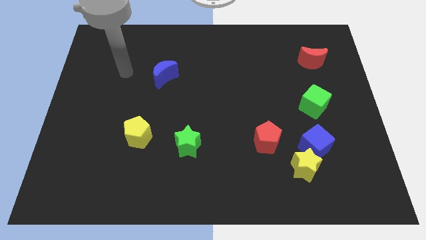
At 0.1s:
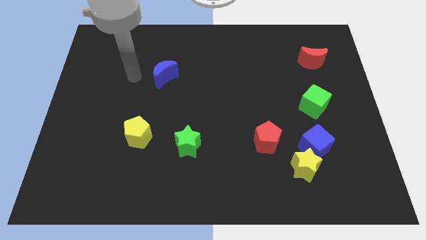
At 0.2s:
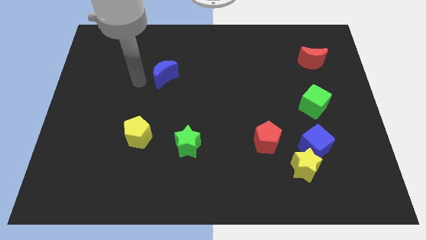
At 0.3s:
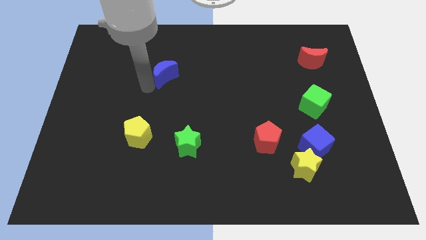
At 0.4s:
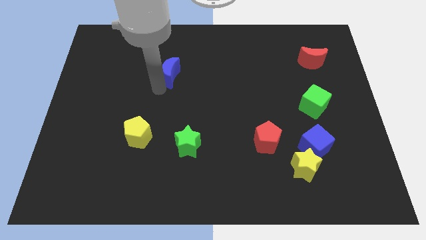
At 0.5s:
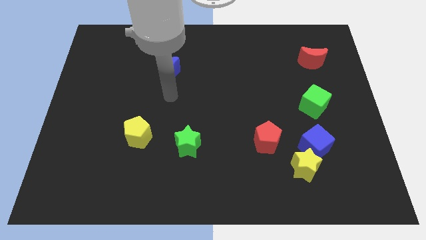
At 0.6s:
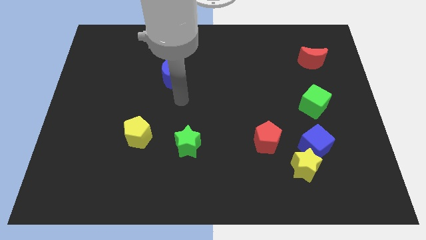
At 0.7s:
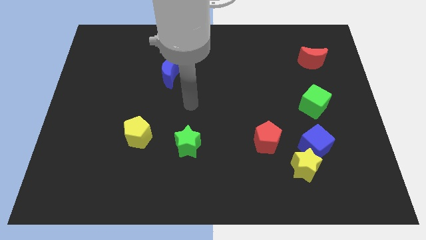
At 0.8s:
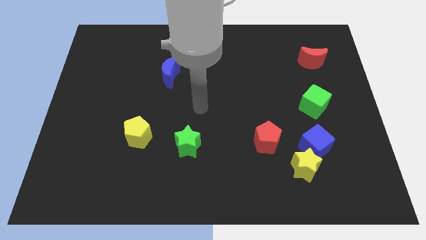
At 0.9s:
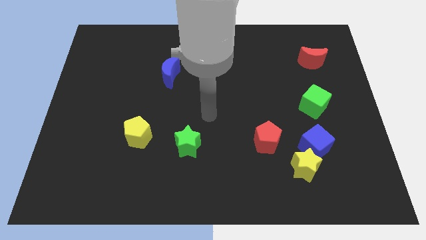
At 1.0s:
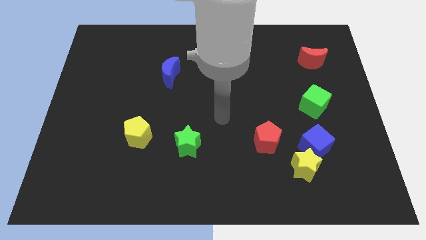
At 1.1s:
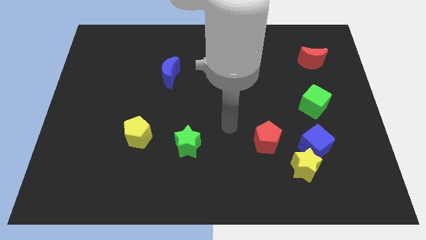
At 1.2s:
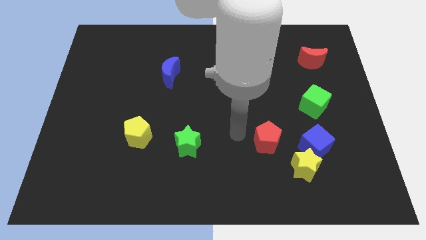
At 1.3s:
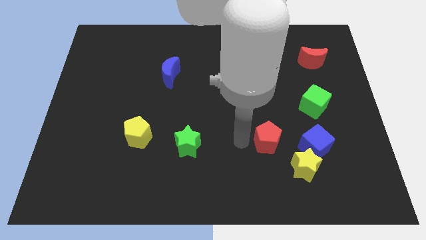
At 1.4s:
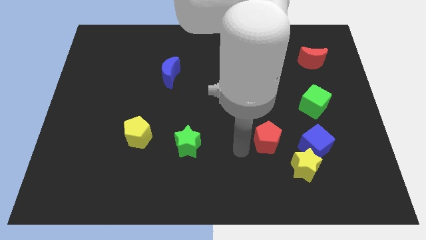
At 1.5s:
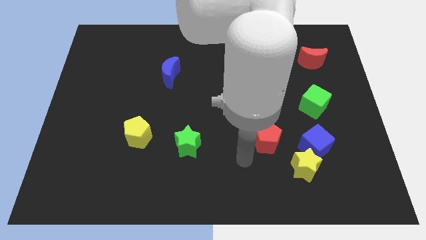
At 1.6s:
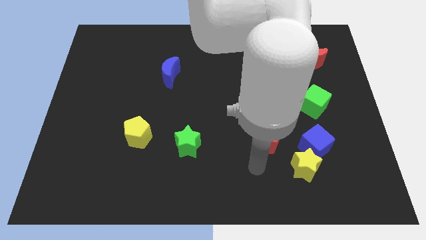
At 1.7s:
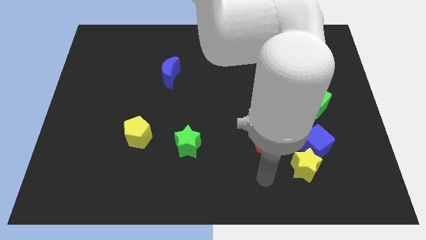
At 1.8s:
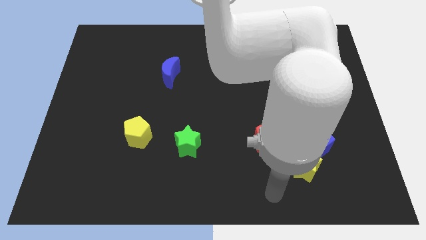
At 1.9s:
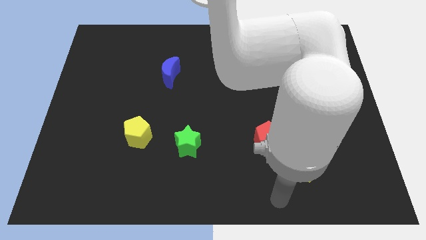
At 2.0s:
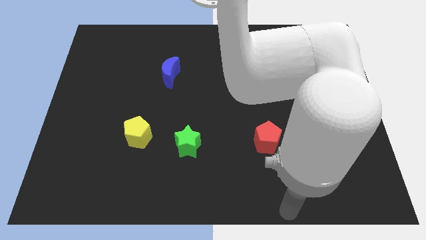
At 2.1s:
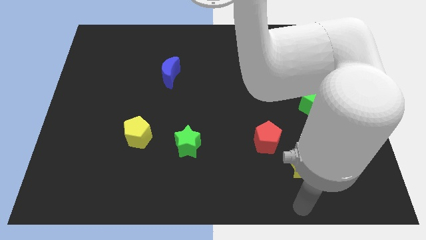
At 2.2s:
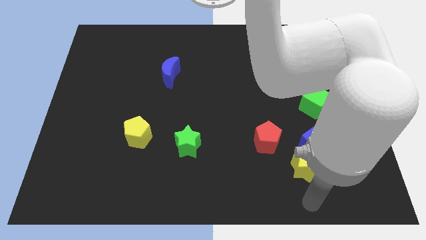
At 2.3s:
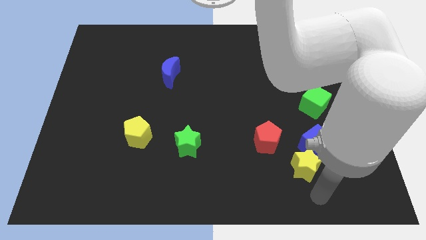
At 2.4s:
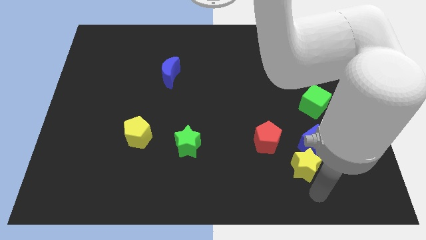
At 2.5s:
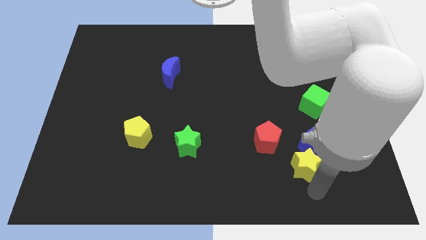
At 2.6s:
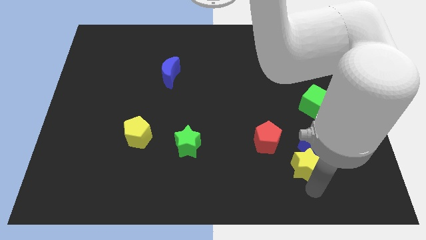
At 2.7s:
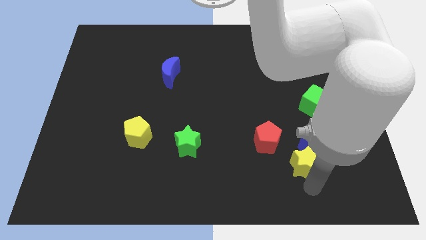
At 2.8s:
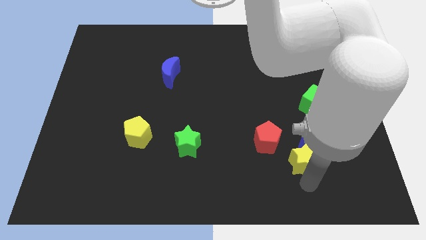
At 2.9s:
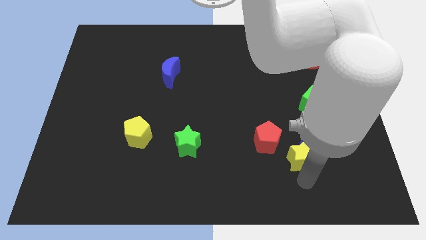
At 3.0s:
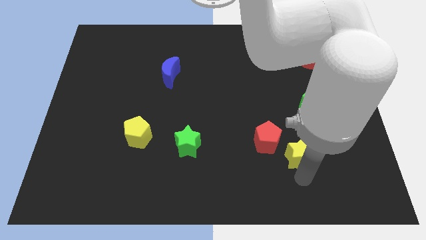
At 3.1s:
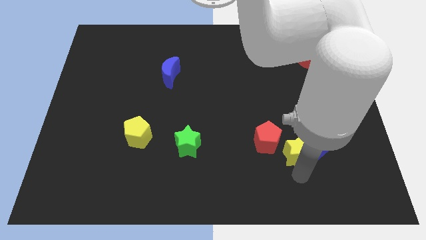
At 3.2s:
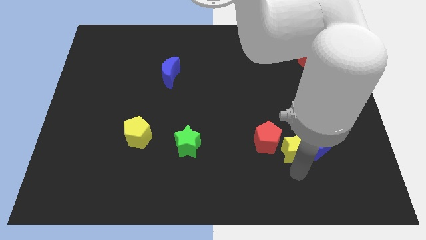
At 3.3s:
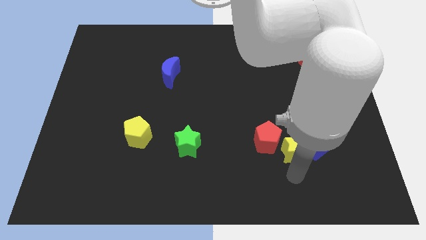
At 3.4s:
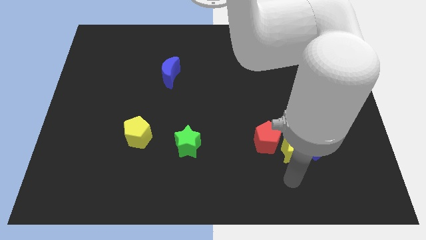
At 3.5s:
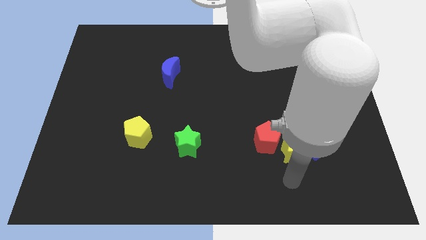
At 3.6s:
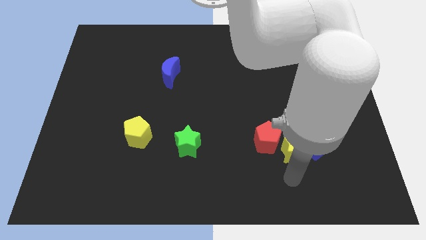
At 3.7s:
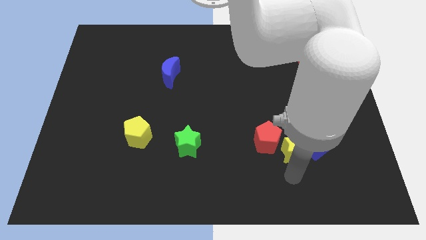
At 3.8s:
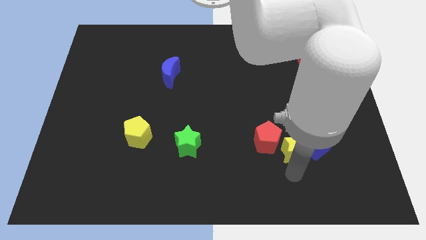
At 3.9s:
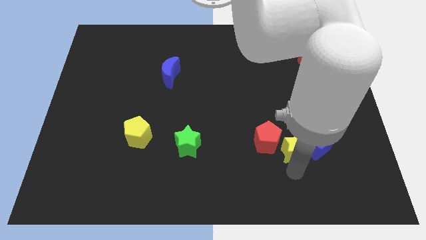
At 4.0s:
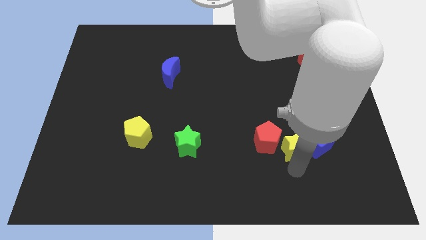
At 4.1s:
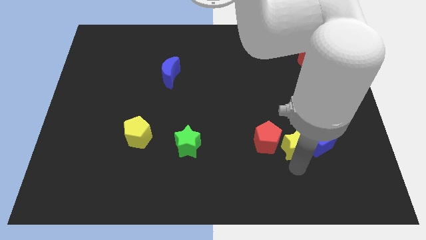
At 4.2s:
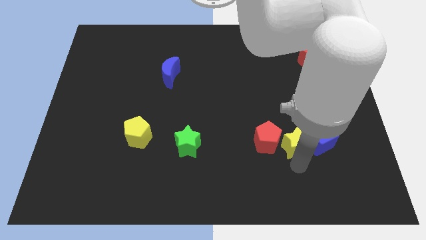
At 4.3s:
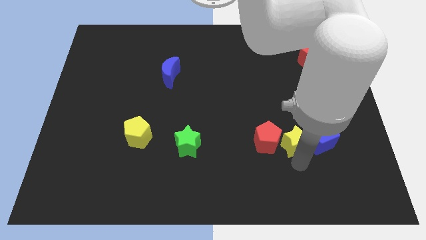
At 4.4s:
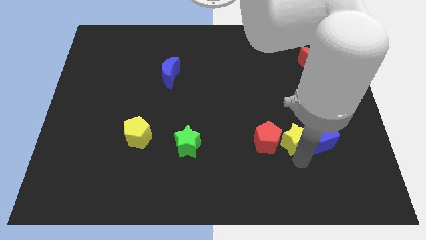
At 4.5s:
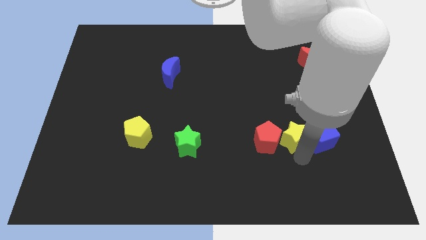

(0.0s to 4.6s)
slightly slide the yellow star up

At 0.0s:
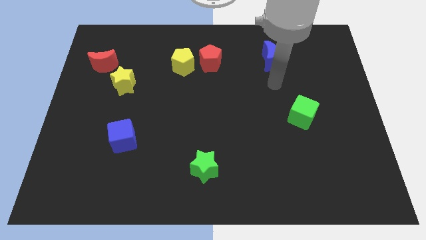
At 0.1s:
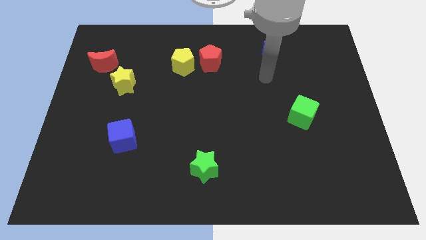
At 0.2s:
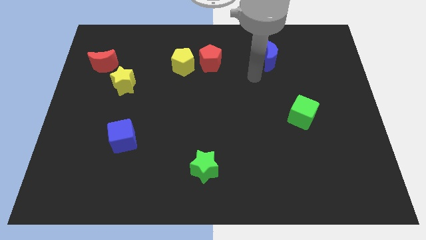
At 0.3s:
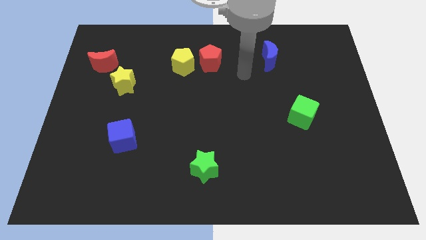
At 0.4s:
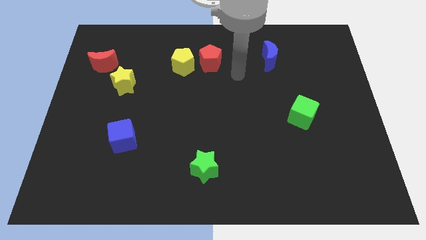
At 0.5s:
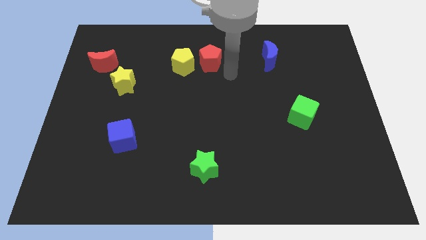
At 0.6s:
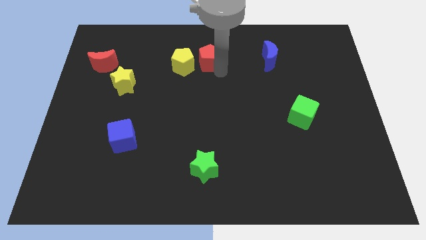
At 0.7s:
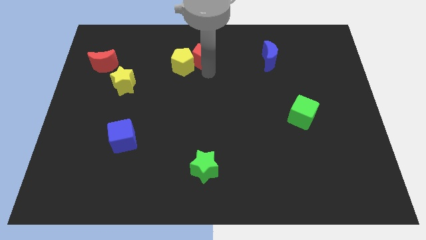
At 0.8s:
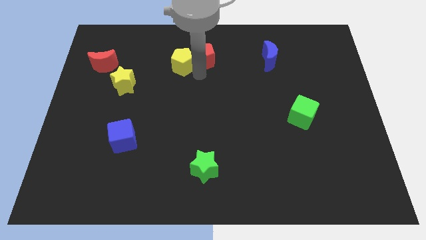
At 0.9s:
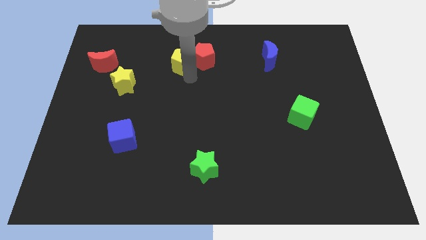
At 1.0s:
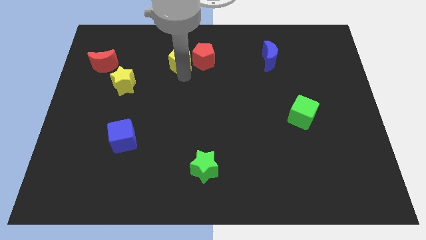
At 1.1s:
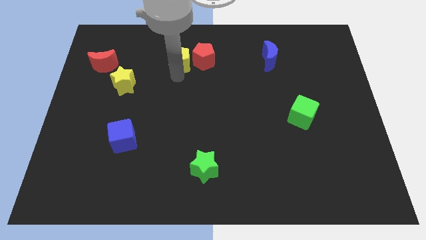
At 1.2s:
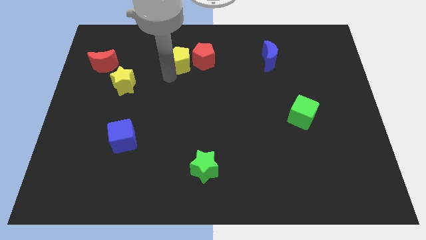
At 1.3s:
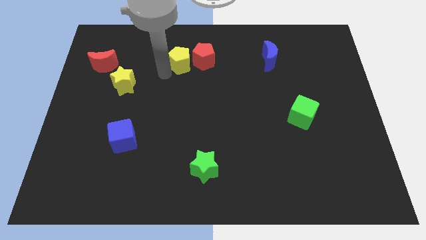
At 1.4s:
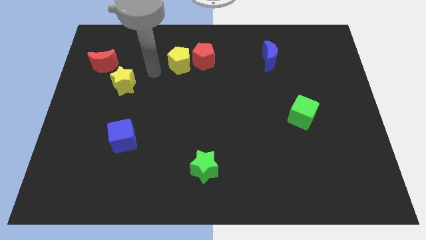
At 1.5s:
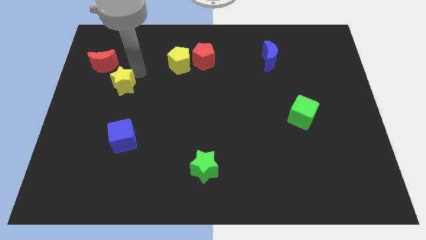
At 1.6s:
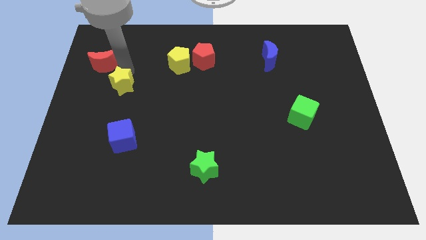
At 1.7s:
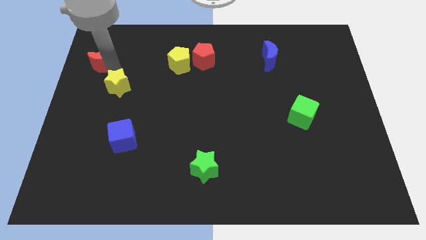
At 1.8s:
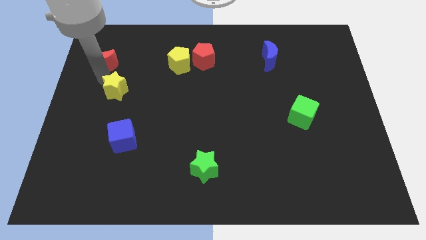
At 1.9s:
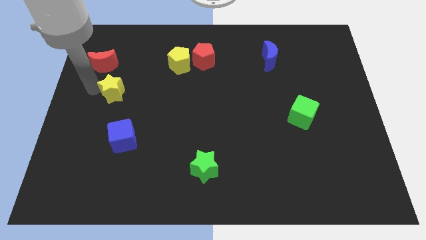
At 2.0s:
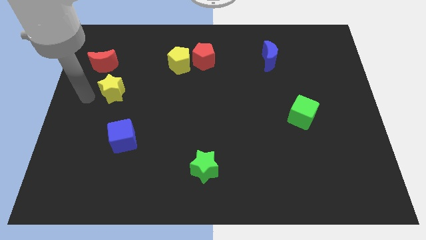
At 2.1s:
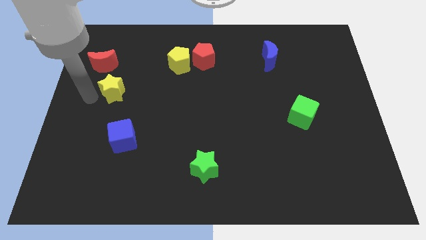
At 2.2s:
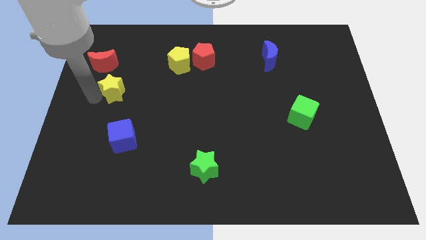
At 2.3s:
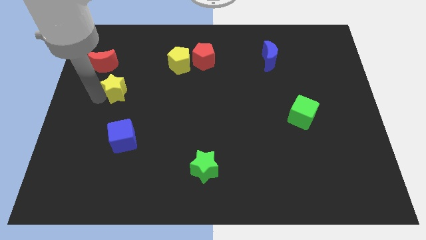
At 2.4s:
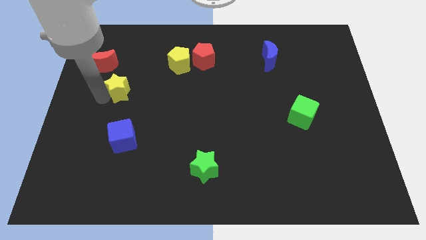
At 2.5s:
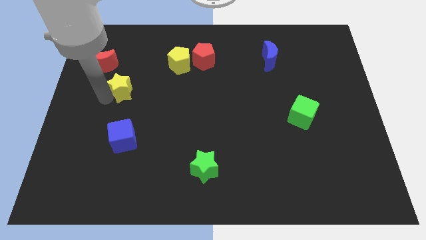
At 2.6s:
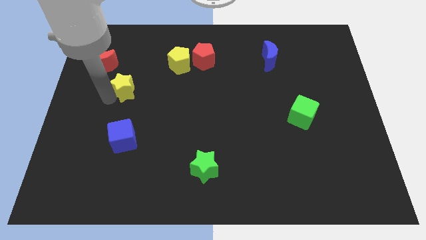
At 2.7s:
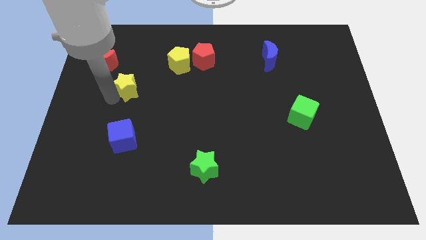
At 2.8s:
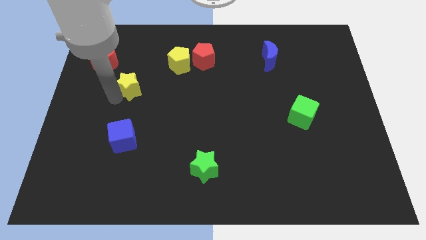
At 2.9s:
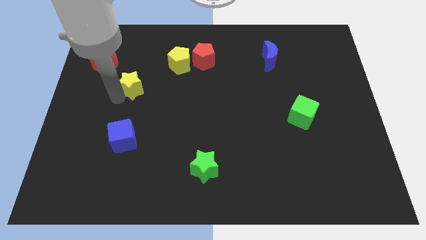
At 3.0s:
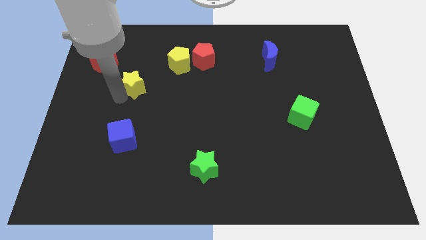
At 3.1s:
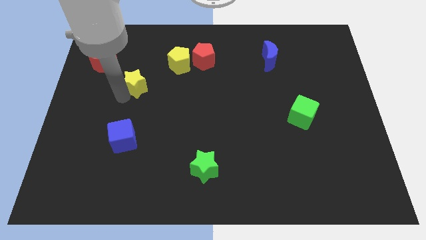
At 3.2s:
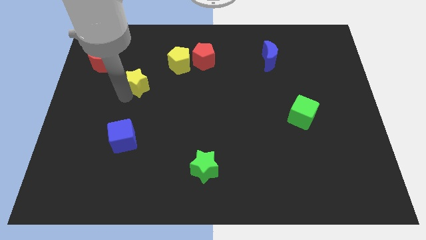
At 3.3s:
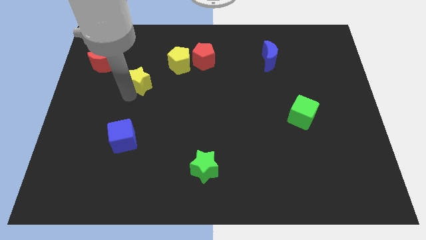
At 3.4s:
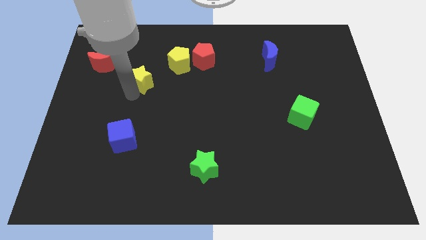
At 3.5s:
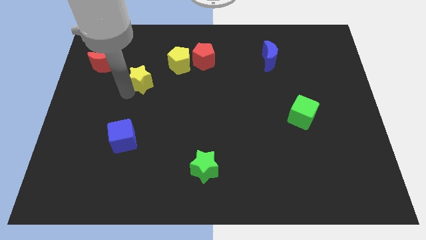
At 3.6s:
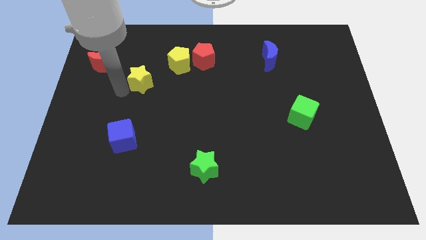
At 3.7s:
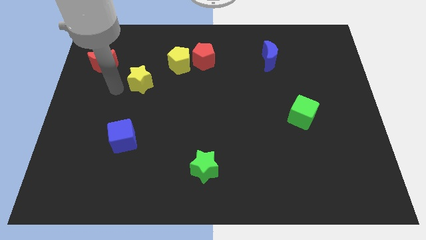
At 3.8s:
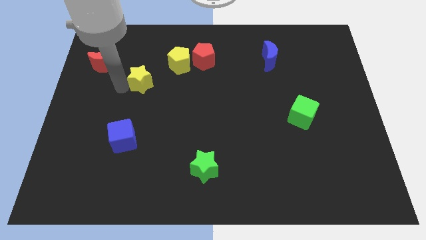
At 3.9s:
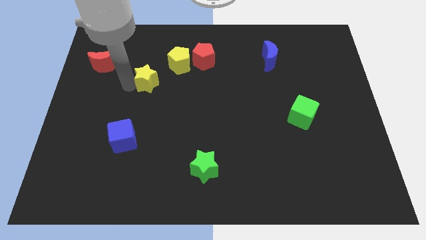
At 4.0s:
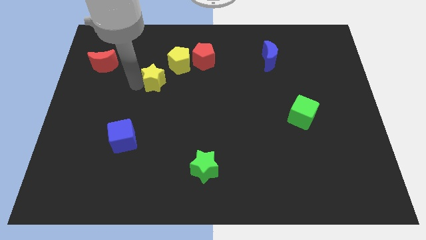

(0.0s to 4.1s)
push the yellow star to the right a little
